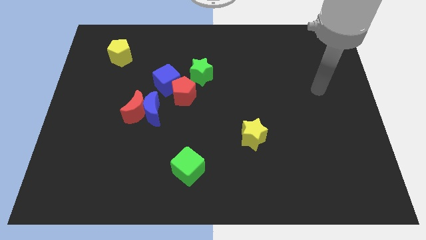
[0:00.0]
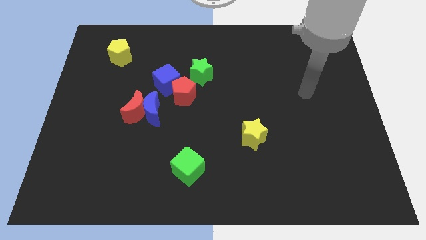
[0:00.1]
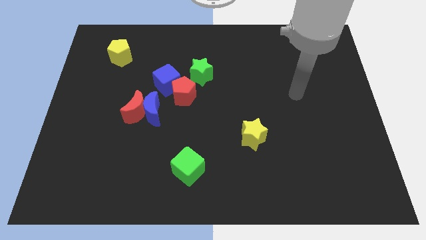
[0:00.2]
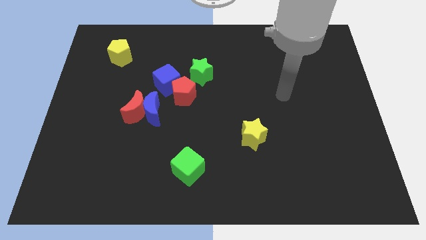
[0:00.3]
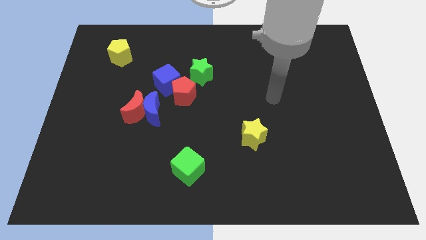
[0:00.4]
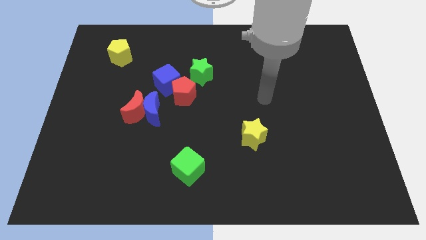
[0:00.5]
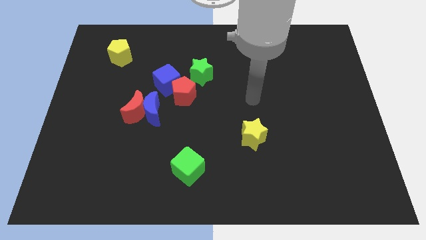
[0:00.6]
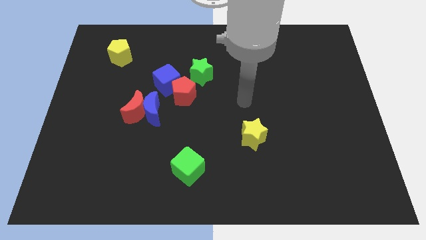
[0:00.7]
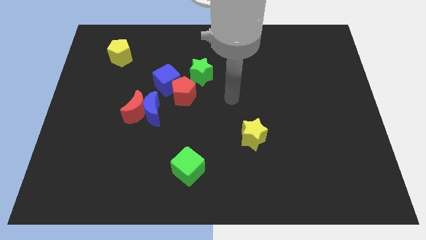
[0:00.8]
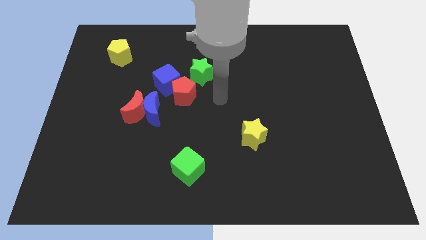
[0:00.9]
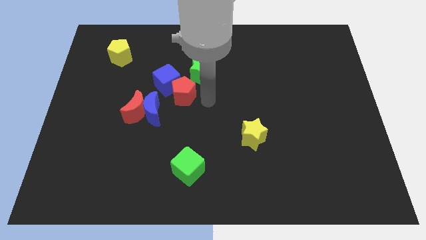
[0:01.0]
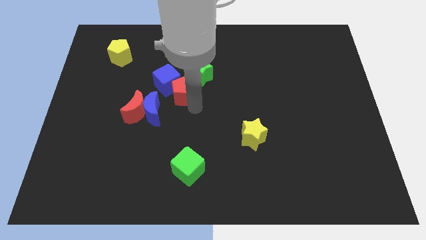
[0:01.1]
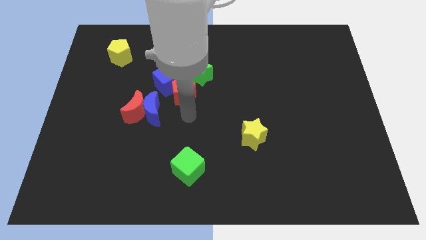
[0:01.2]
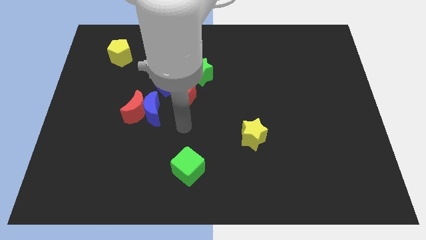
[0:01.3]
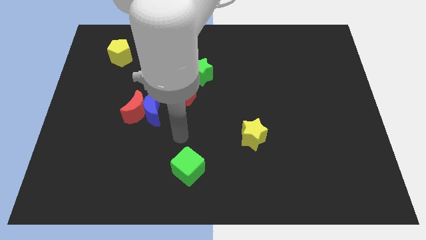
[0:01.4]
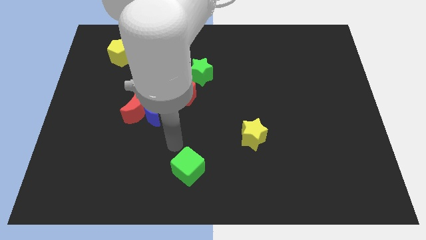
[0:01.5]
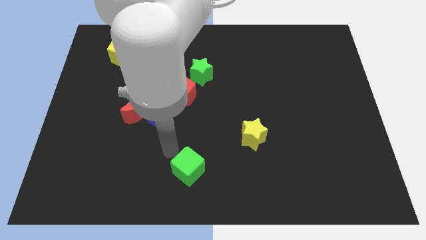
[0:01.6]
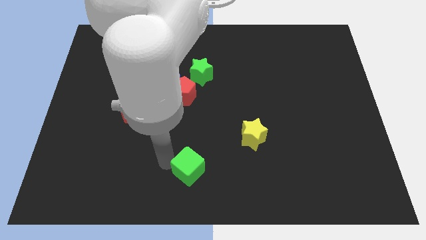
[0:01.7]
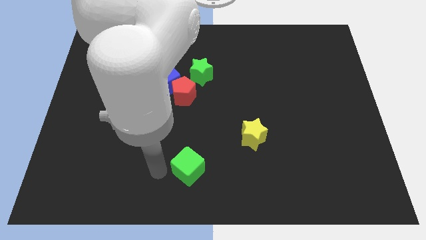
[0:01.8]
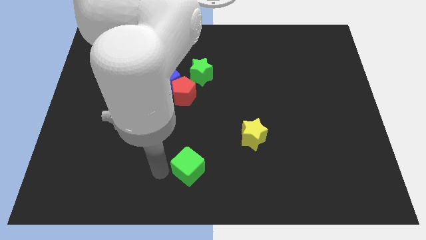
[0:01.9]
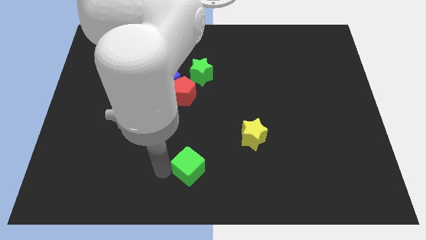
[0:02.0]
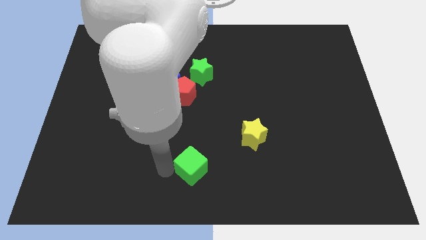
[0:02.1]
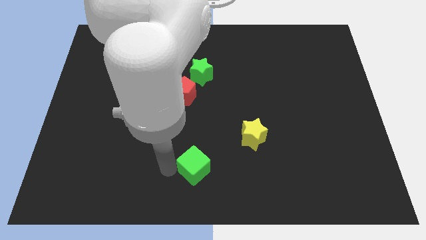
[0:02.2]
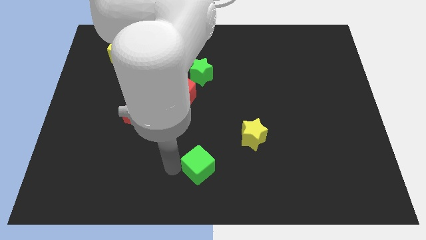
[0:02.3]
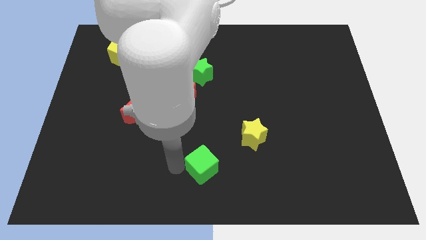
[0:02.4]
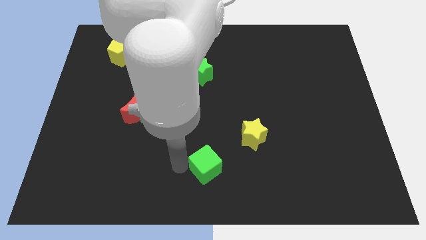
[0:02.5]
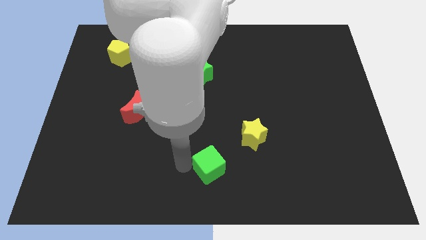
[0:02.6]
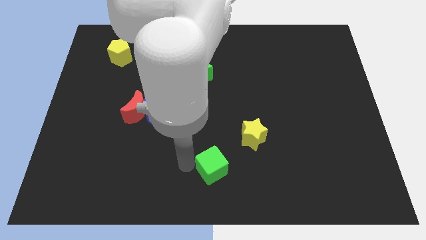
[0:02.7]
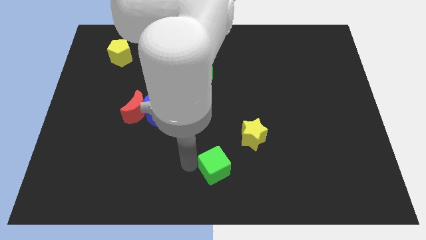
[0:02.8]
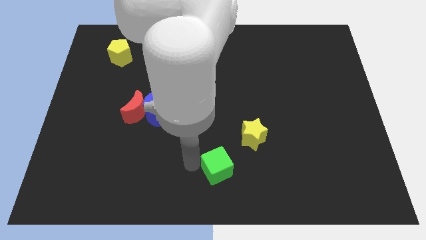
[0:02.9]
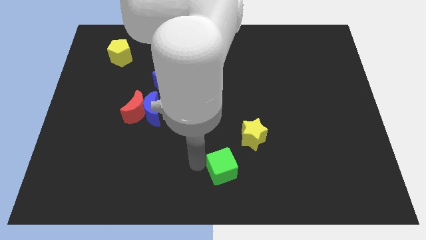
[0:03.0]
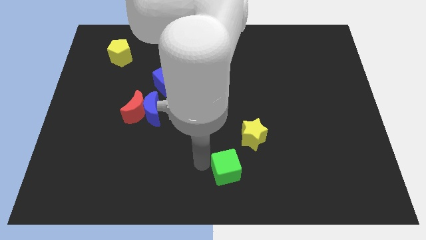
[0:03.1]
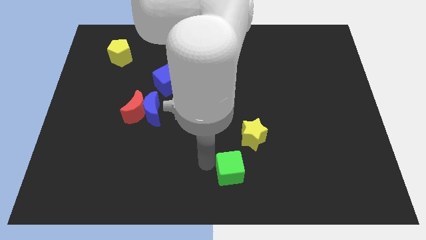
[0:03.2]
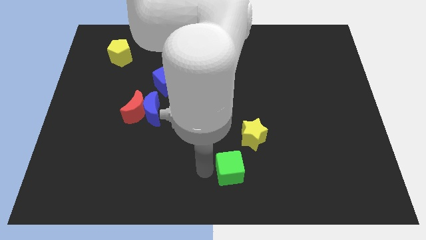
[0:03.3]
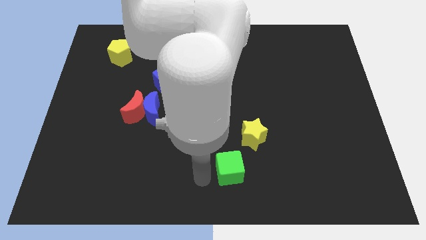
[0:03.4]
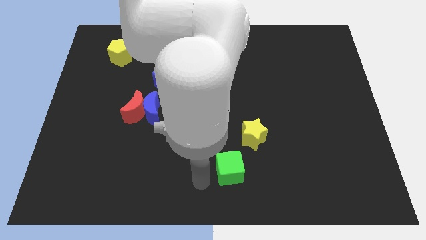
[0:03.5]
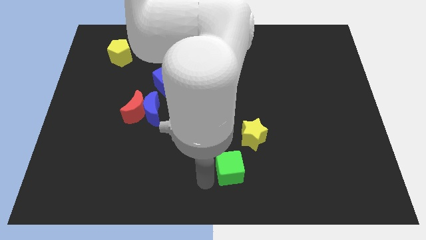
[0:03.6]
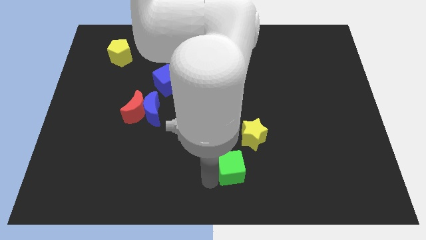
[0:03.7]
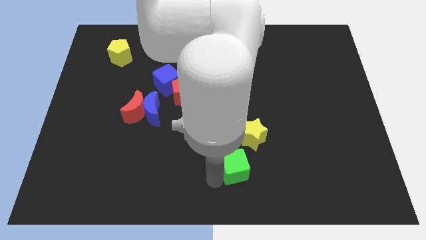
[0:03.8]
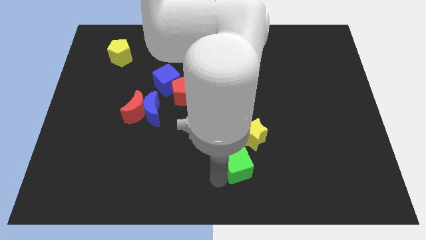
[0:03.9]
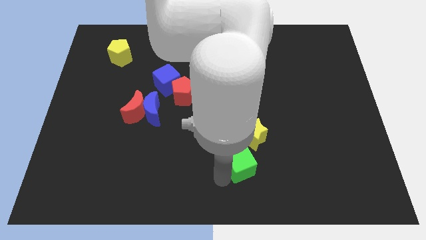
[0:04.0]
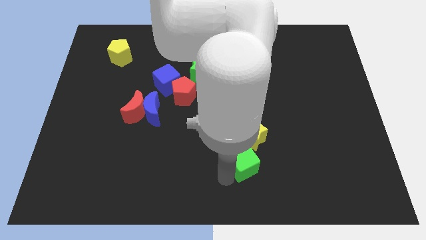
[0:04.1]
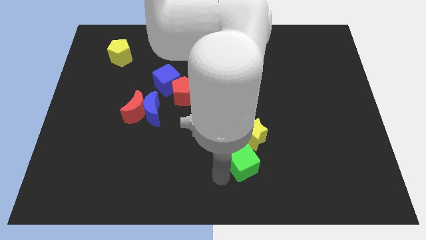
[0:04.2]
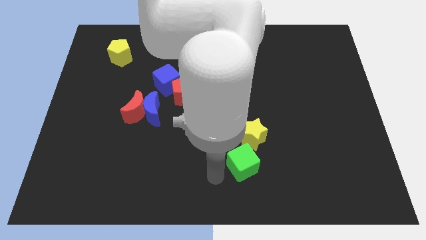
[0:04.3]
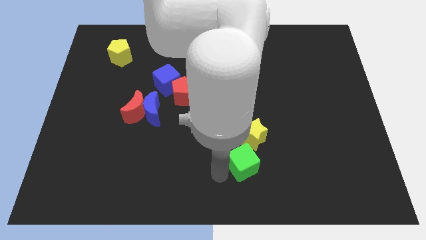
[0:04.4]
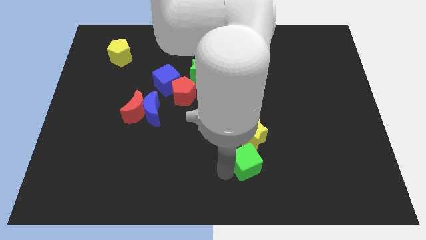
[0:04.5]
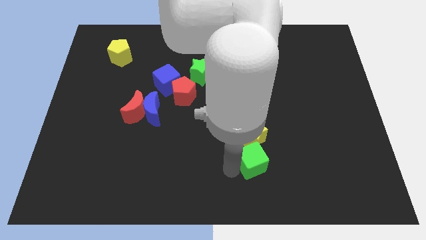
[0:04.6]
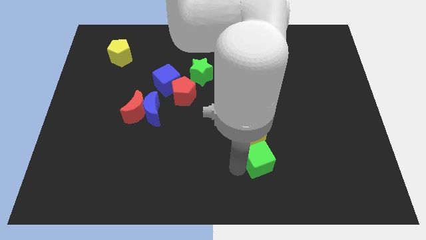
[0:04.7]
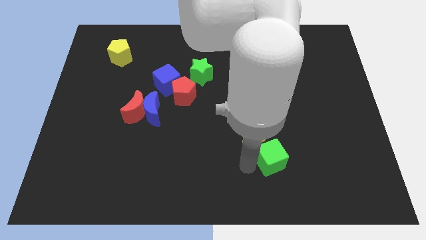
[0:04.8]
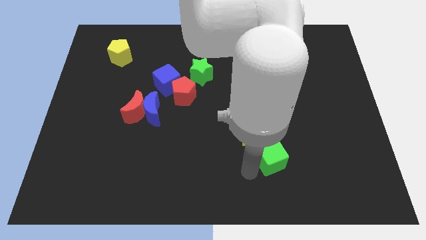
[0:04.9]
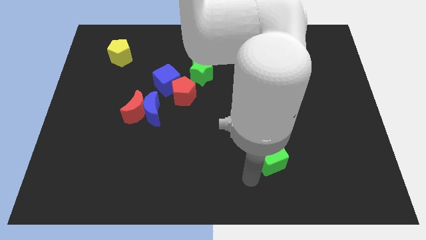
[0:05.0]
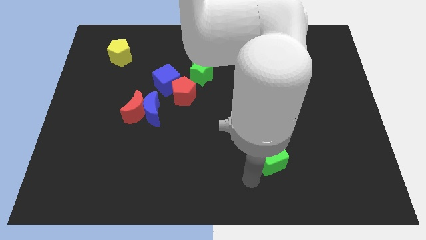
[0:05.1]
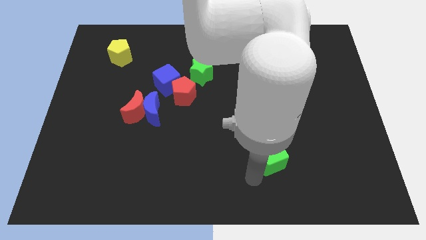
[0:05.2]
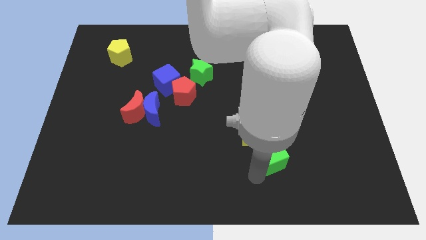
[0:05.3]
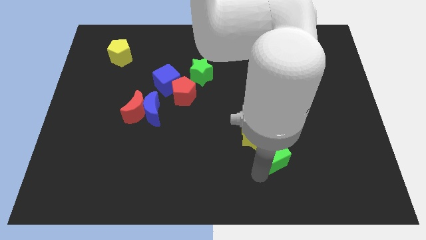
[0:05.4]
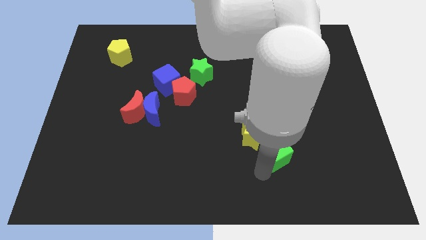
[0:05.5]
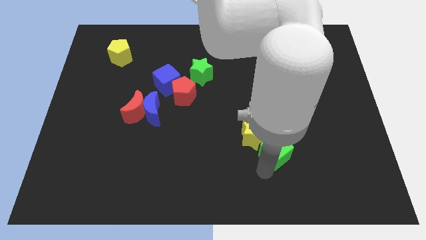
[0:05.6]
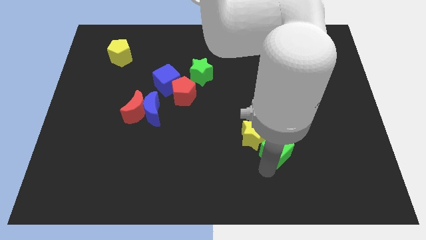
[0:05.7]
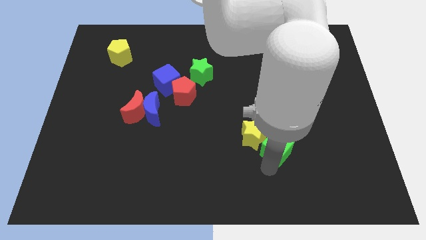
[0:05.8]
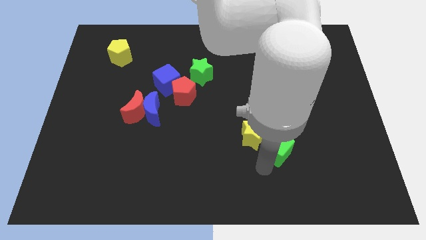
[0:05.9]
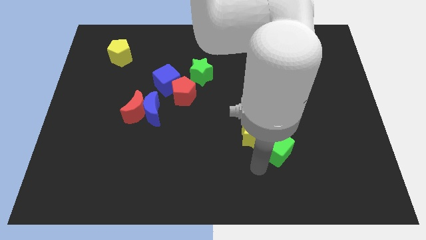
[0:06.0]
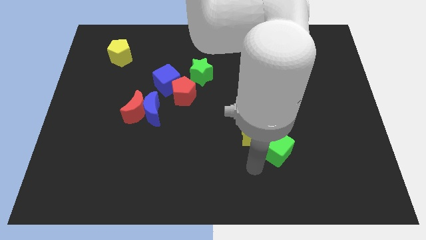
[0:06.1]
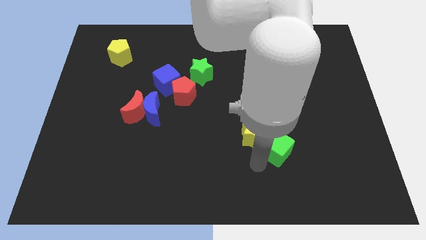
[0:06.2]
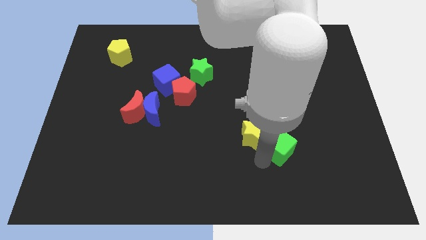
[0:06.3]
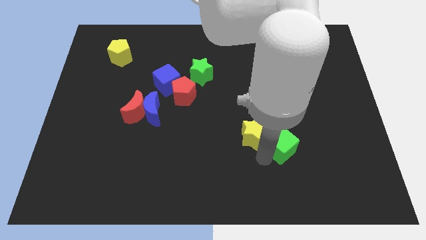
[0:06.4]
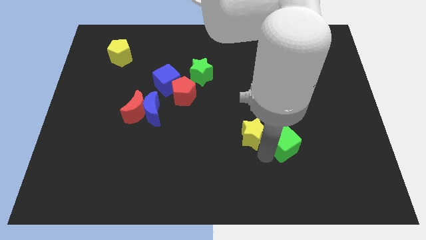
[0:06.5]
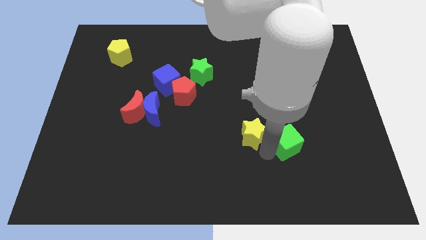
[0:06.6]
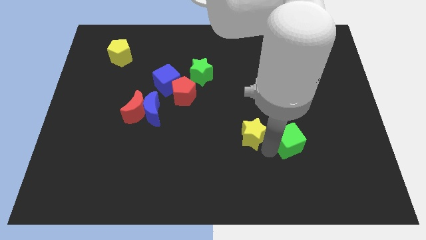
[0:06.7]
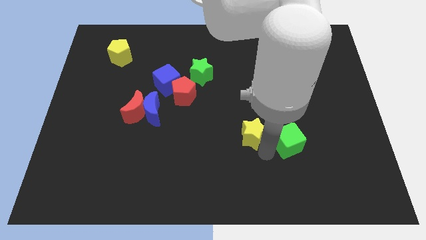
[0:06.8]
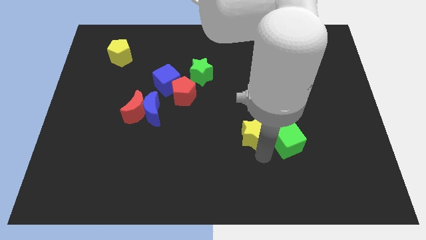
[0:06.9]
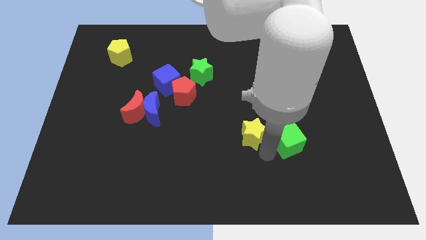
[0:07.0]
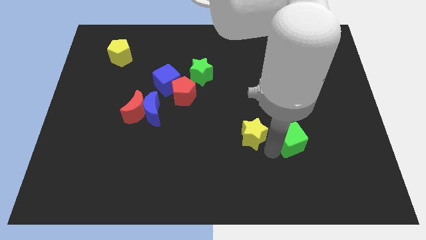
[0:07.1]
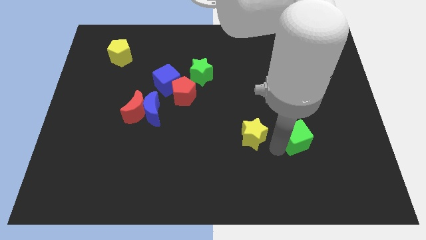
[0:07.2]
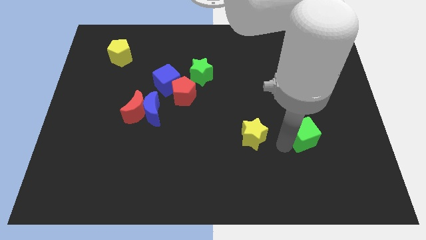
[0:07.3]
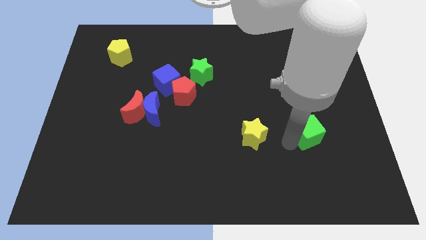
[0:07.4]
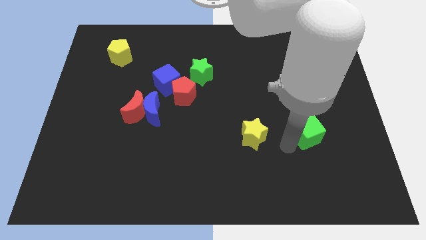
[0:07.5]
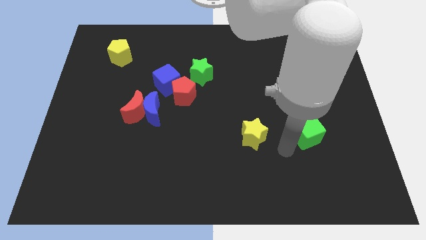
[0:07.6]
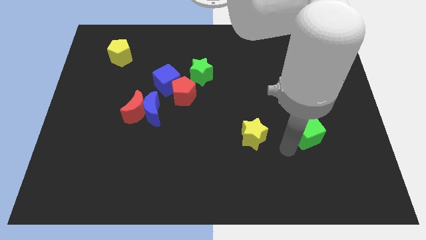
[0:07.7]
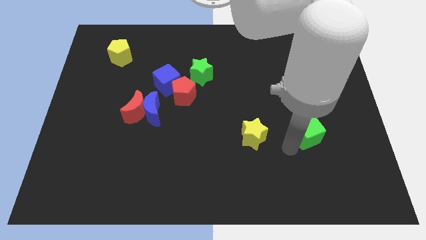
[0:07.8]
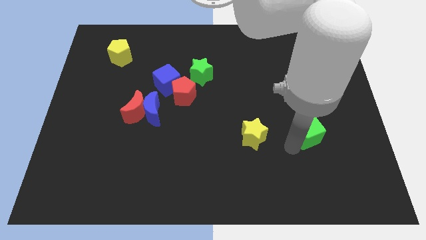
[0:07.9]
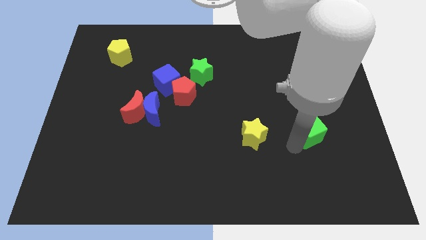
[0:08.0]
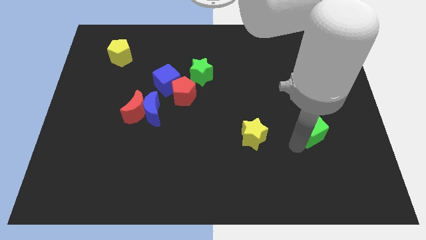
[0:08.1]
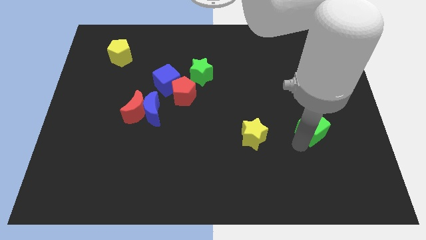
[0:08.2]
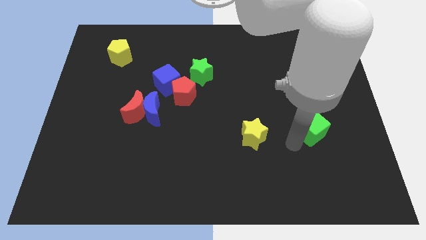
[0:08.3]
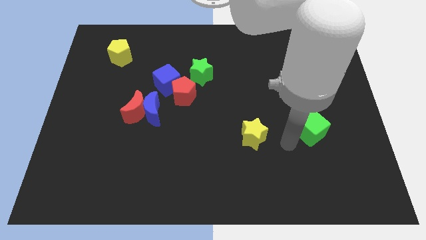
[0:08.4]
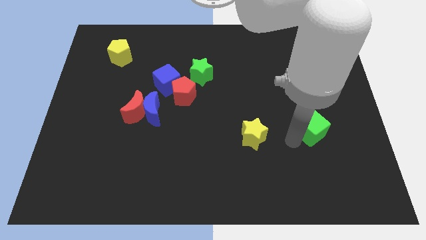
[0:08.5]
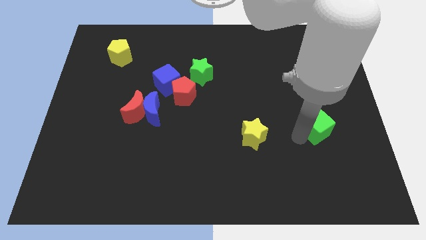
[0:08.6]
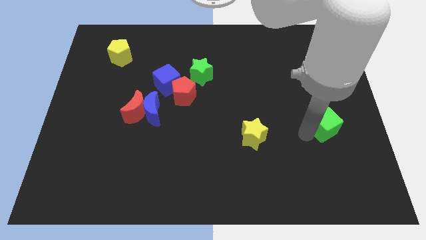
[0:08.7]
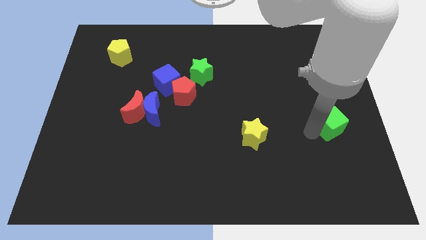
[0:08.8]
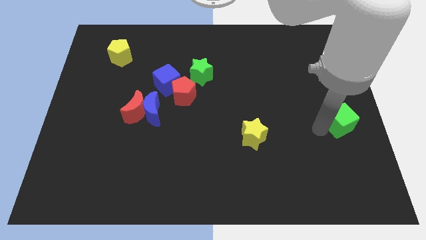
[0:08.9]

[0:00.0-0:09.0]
put the green cube to the center right
